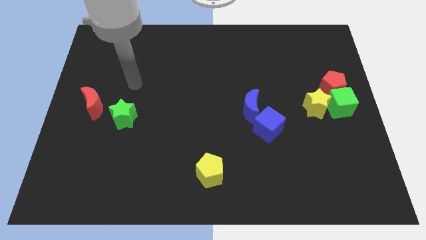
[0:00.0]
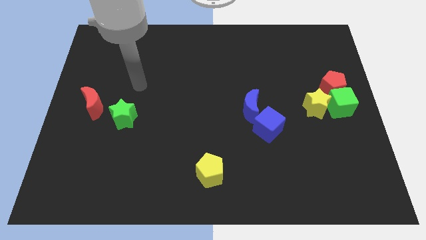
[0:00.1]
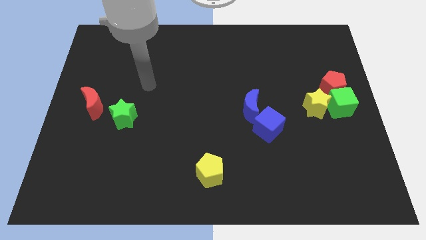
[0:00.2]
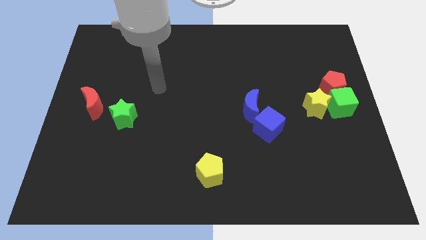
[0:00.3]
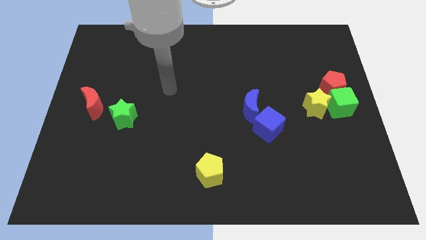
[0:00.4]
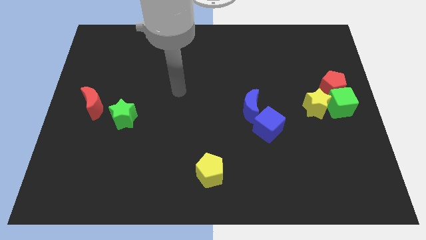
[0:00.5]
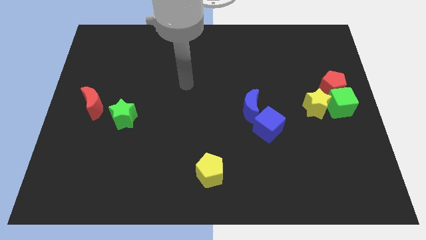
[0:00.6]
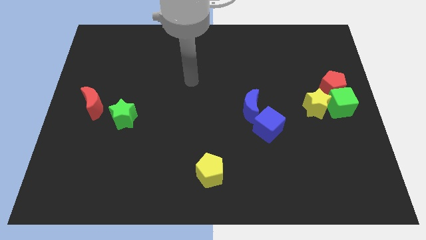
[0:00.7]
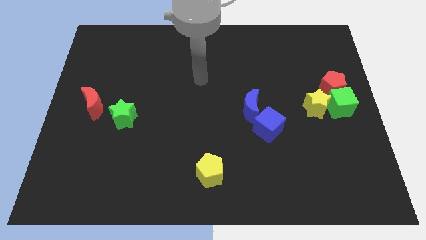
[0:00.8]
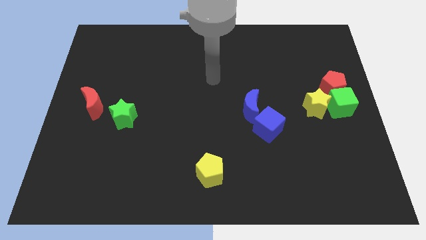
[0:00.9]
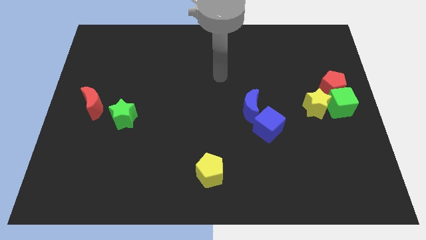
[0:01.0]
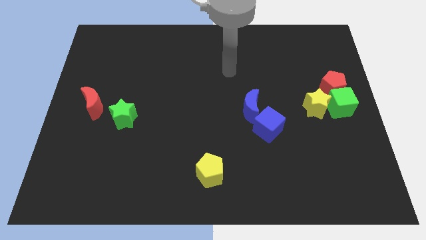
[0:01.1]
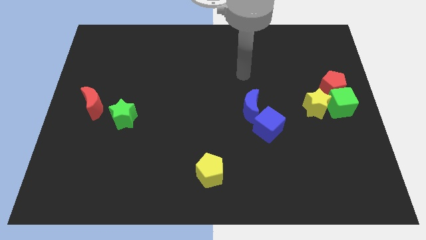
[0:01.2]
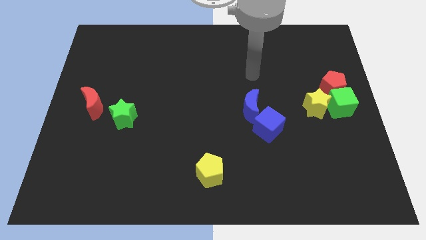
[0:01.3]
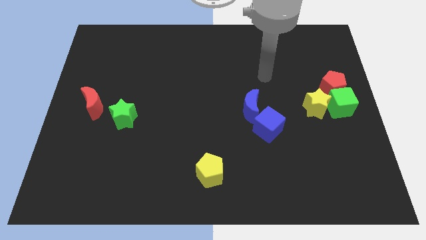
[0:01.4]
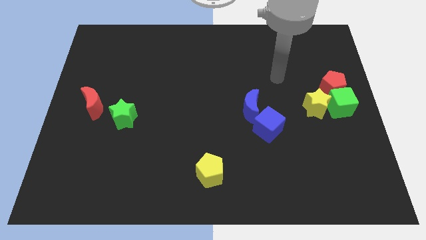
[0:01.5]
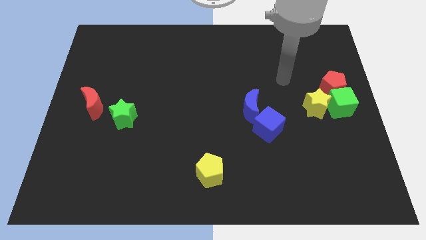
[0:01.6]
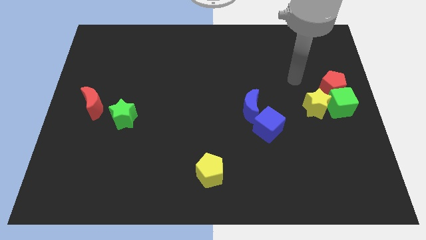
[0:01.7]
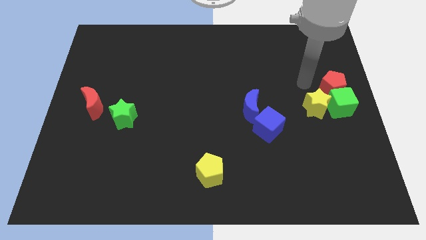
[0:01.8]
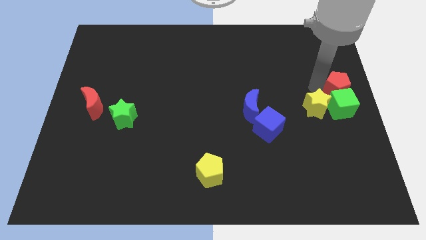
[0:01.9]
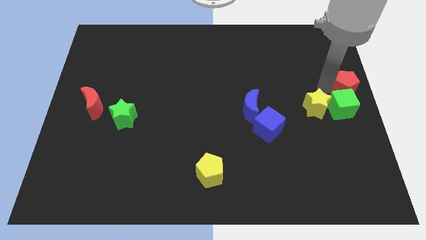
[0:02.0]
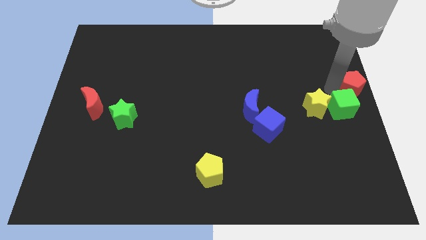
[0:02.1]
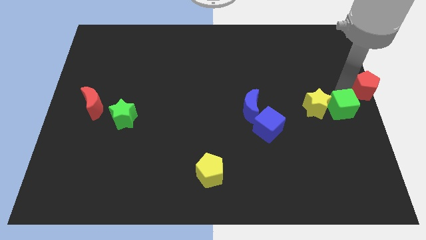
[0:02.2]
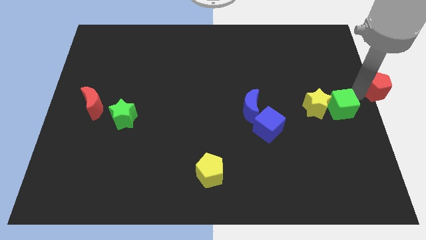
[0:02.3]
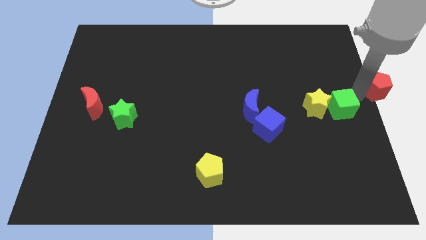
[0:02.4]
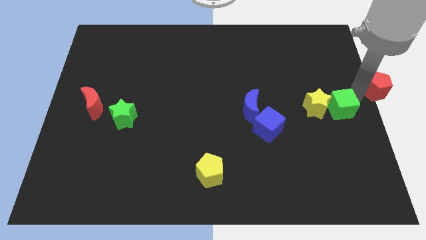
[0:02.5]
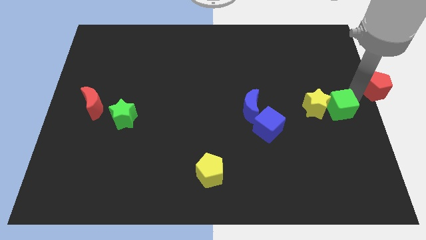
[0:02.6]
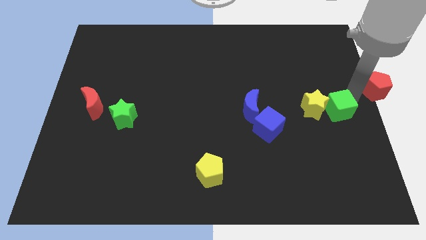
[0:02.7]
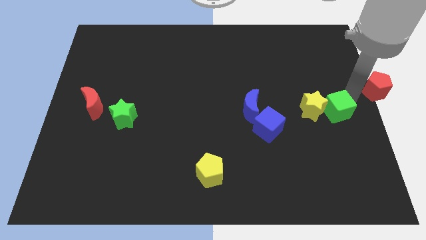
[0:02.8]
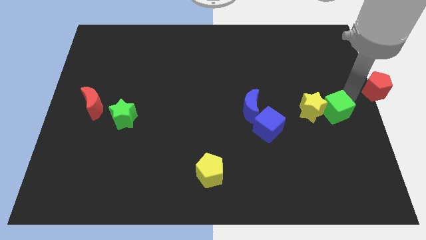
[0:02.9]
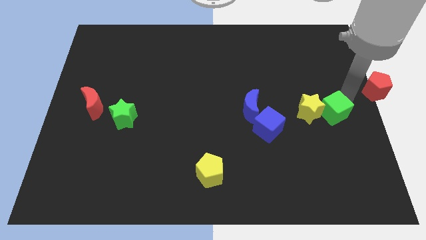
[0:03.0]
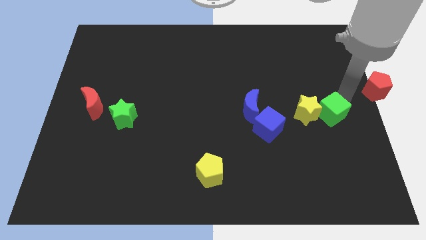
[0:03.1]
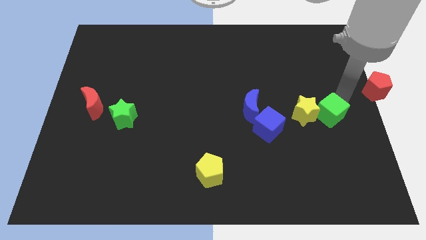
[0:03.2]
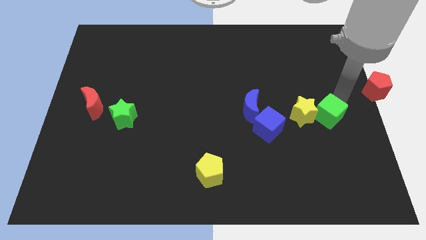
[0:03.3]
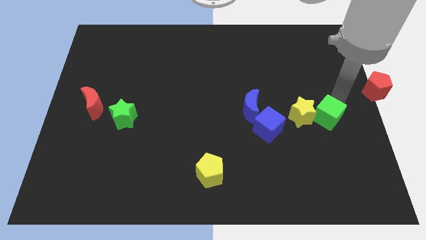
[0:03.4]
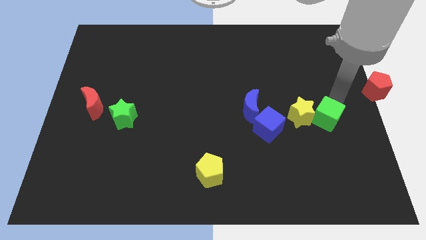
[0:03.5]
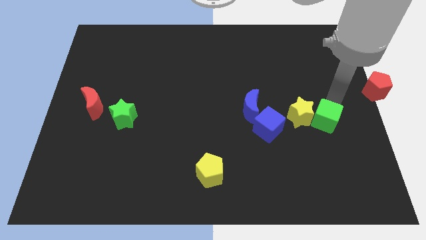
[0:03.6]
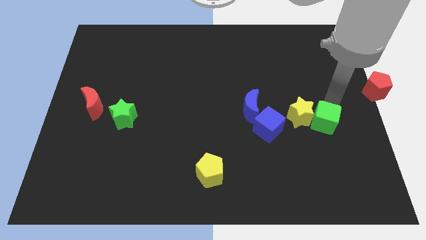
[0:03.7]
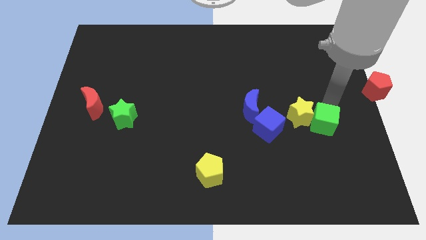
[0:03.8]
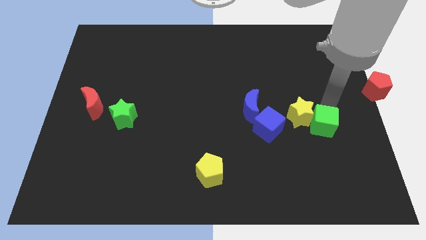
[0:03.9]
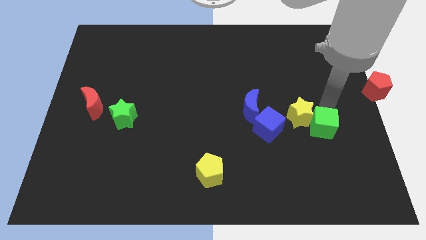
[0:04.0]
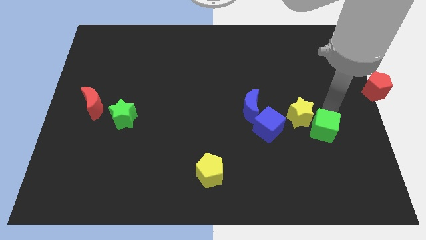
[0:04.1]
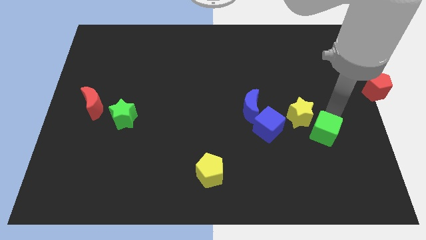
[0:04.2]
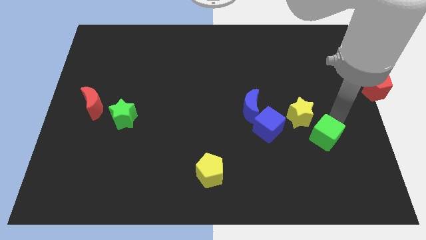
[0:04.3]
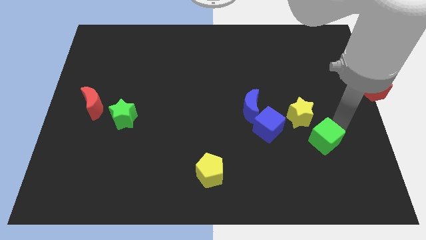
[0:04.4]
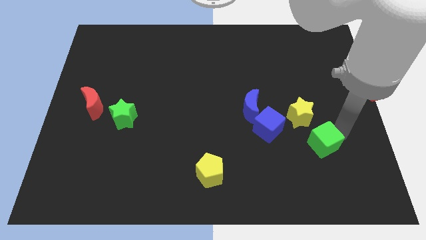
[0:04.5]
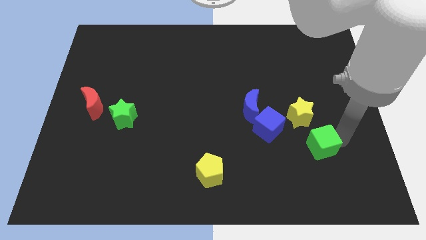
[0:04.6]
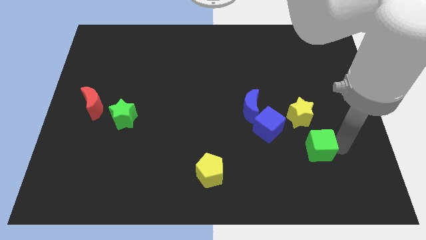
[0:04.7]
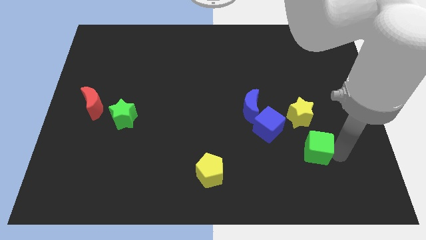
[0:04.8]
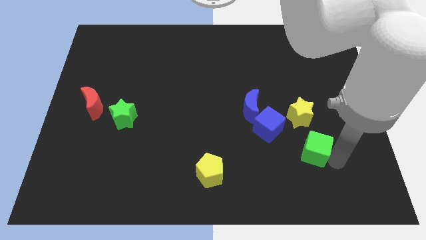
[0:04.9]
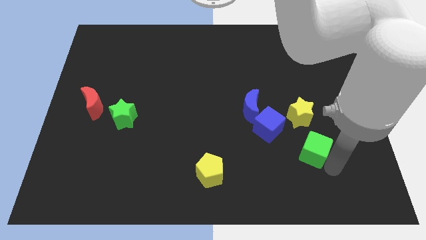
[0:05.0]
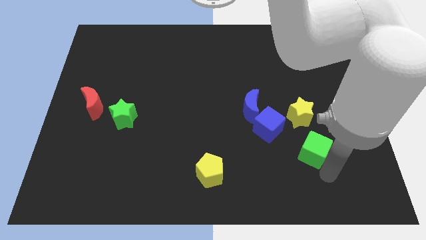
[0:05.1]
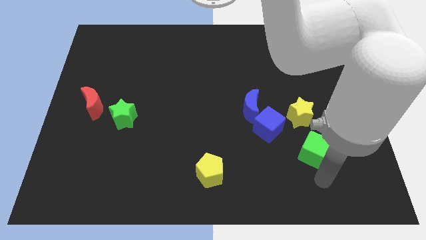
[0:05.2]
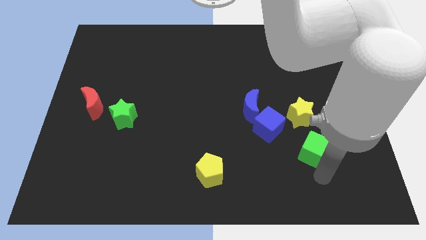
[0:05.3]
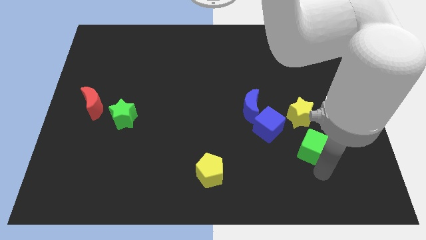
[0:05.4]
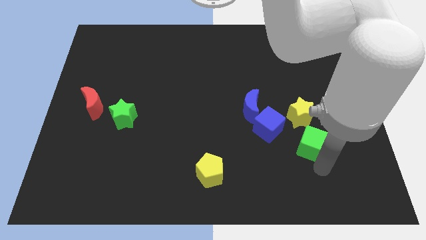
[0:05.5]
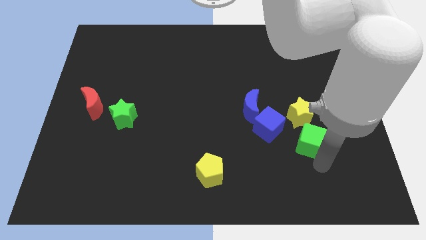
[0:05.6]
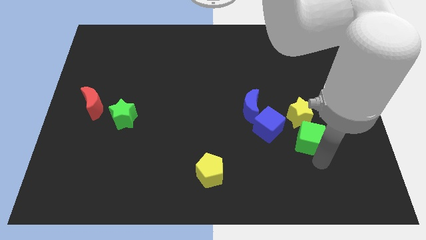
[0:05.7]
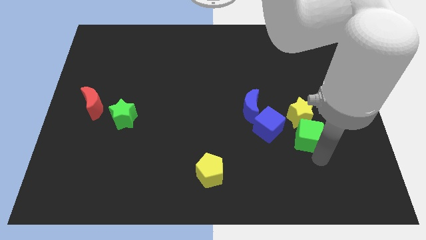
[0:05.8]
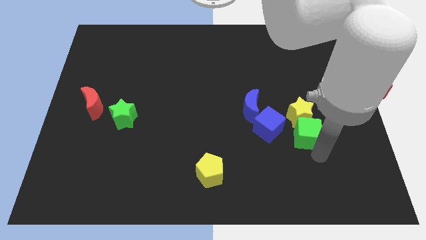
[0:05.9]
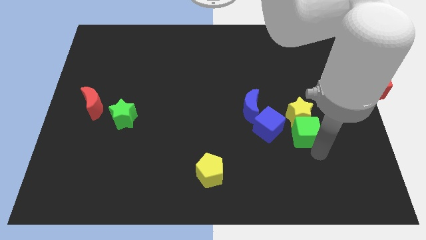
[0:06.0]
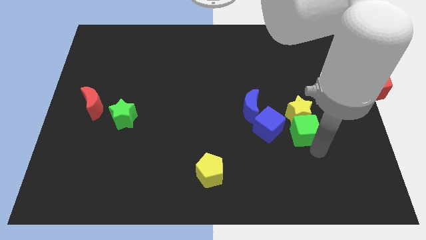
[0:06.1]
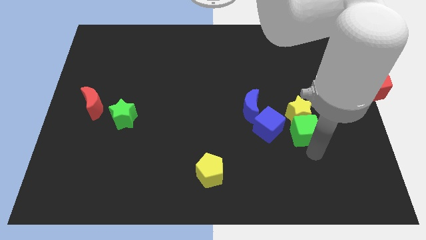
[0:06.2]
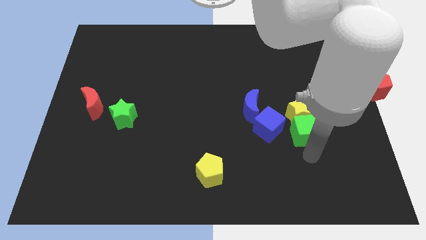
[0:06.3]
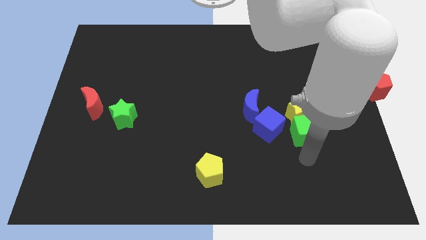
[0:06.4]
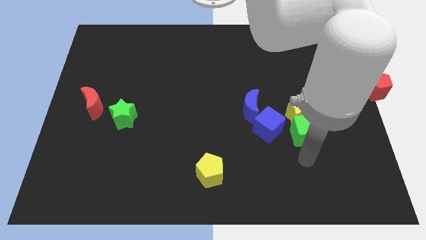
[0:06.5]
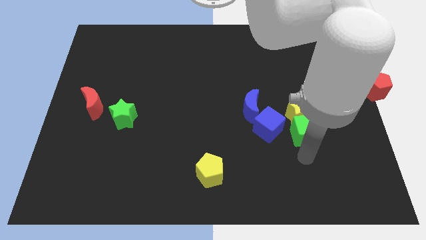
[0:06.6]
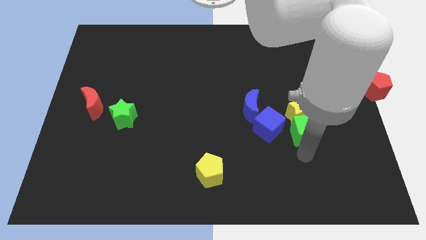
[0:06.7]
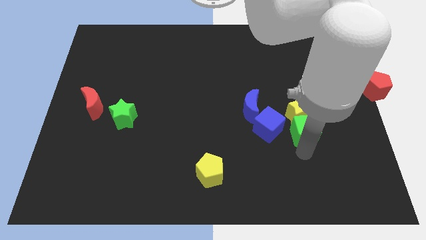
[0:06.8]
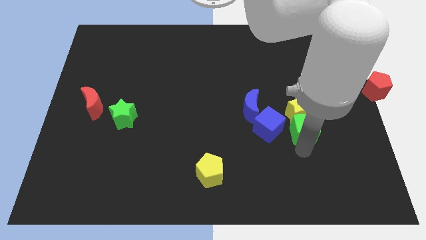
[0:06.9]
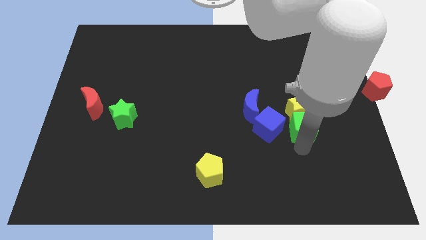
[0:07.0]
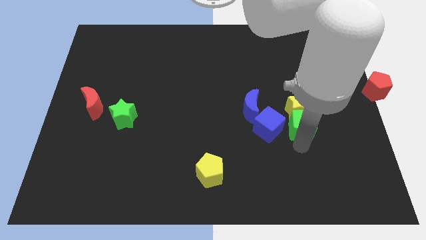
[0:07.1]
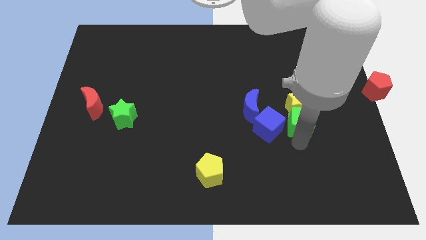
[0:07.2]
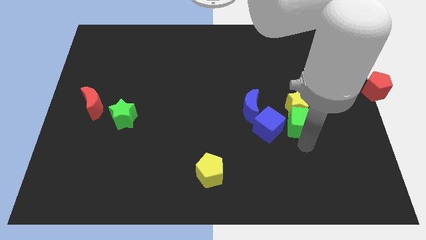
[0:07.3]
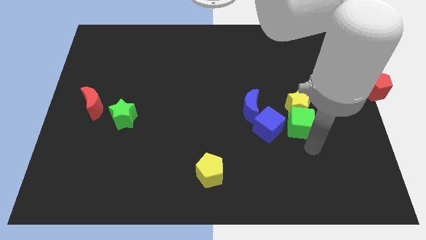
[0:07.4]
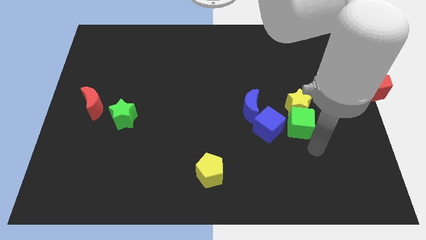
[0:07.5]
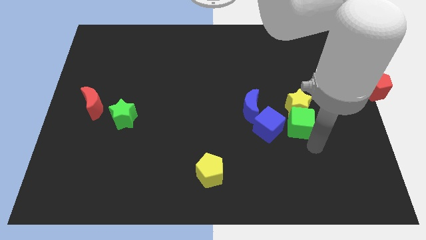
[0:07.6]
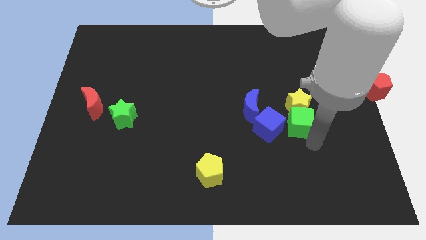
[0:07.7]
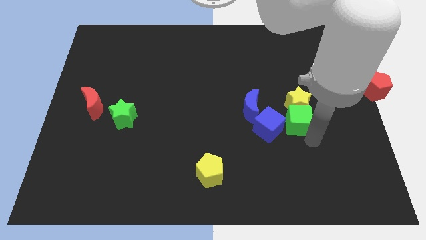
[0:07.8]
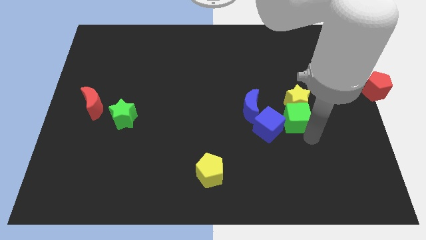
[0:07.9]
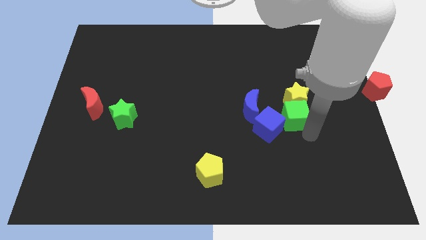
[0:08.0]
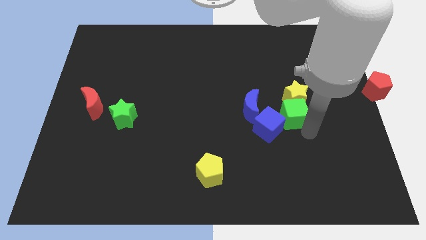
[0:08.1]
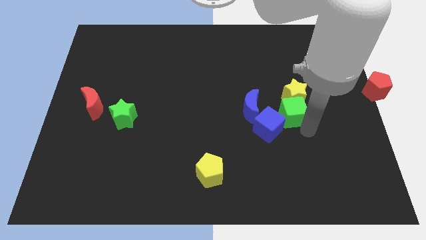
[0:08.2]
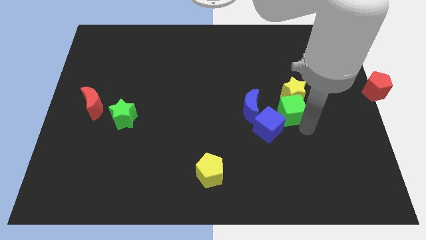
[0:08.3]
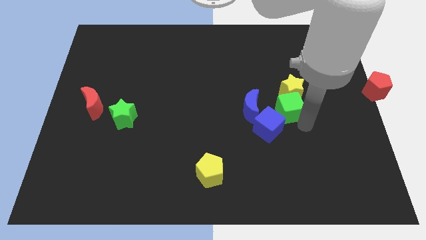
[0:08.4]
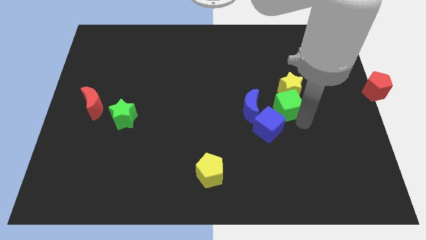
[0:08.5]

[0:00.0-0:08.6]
put the green cube above the blue cube
